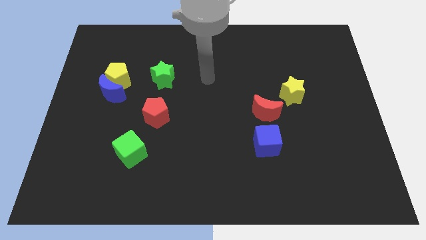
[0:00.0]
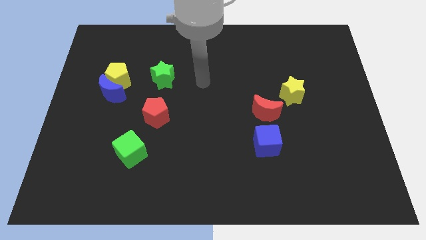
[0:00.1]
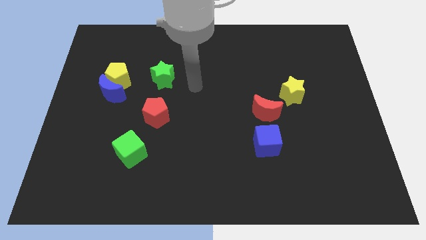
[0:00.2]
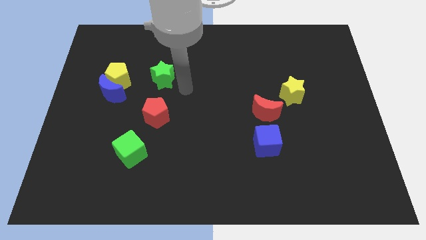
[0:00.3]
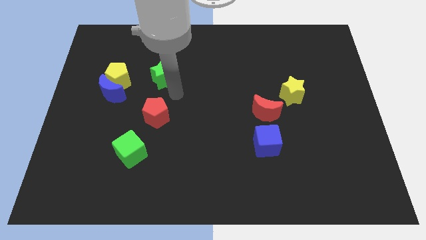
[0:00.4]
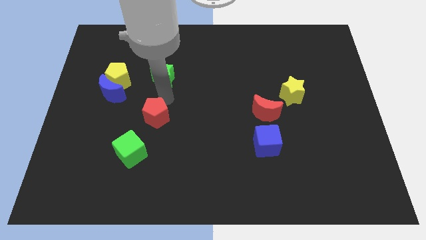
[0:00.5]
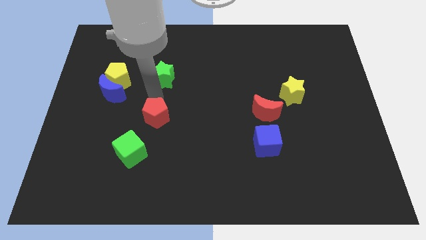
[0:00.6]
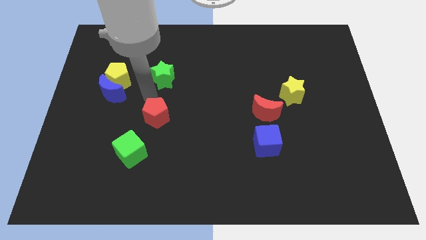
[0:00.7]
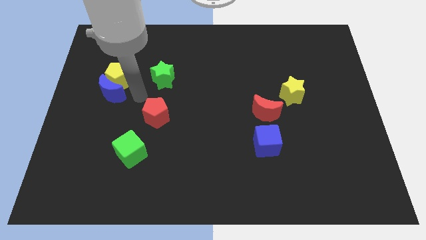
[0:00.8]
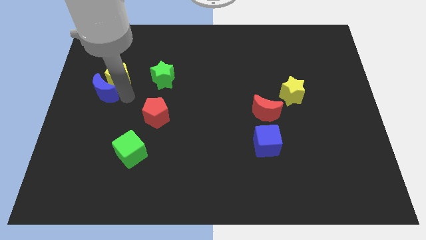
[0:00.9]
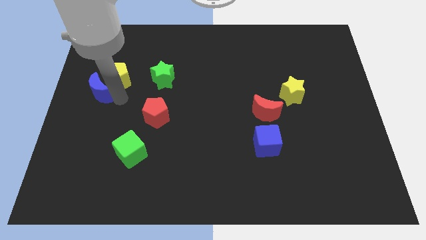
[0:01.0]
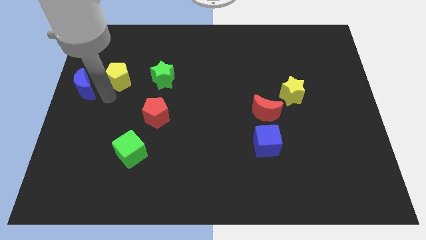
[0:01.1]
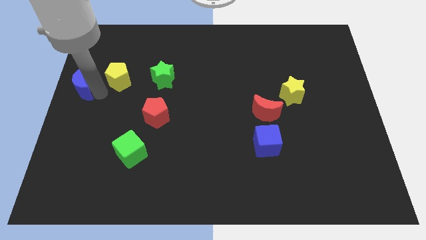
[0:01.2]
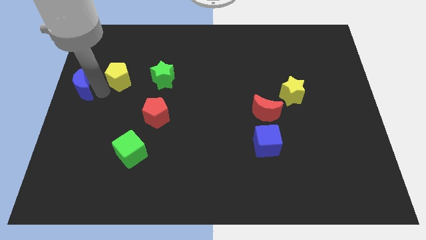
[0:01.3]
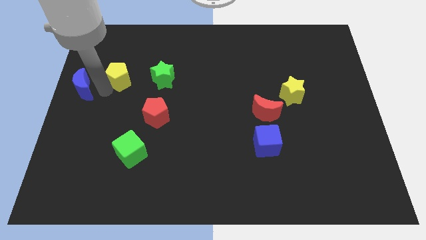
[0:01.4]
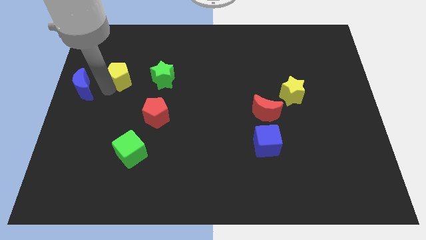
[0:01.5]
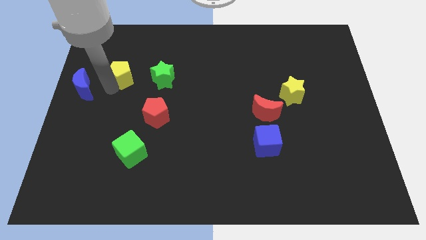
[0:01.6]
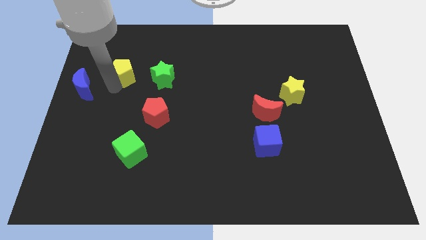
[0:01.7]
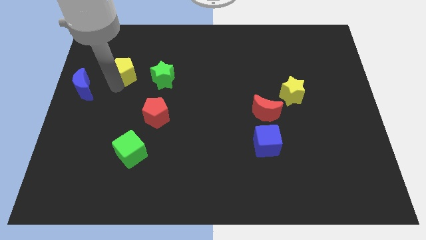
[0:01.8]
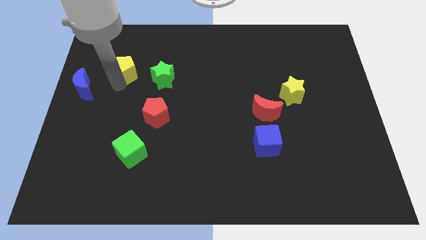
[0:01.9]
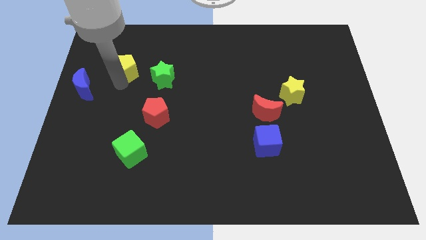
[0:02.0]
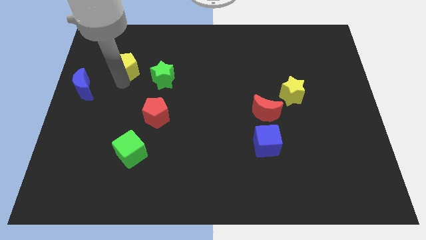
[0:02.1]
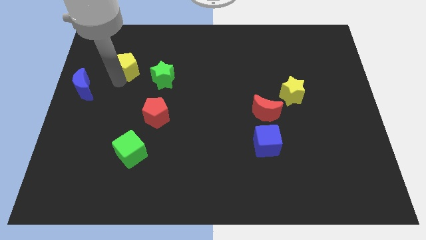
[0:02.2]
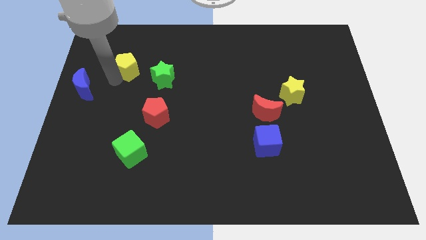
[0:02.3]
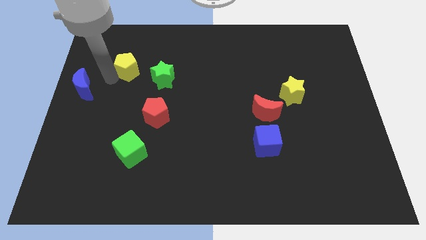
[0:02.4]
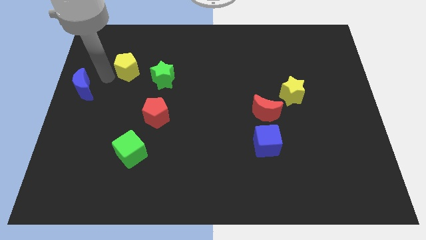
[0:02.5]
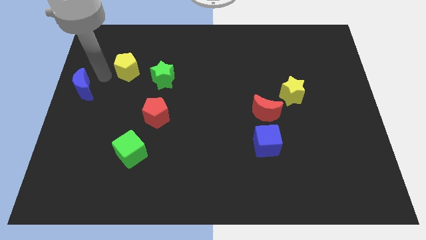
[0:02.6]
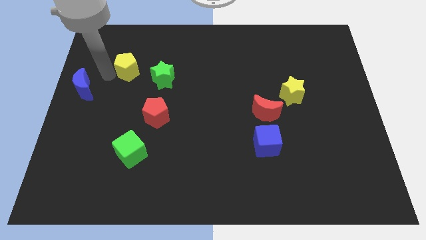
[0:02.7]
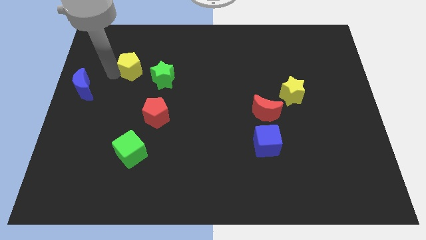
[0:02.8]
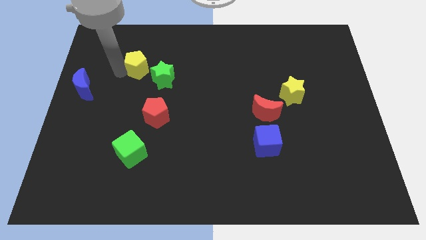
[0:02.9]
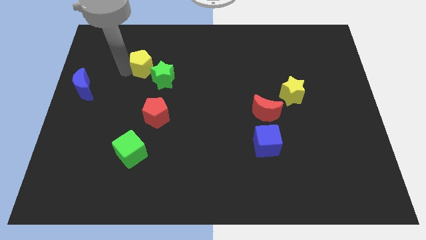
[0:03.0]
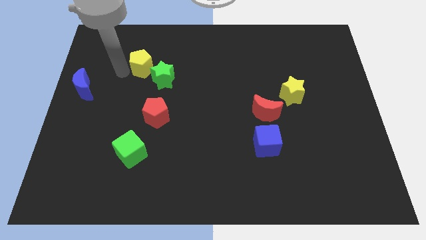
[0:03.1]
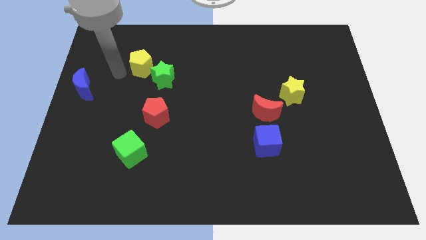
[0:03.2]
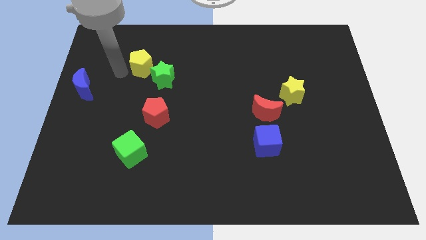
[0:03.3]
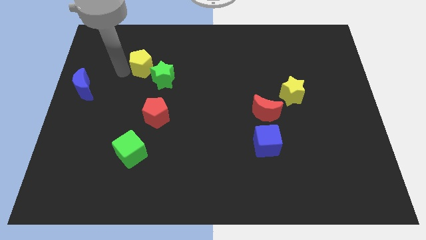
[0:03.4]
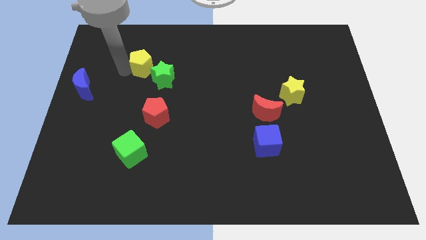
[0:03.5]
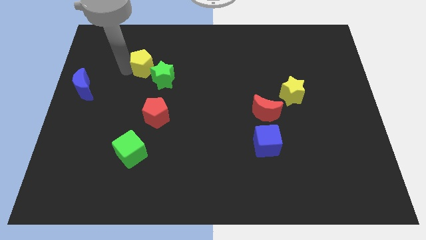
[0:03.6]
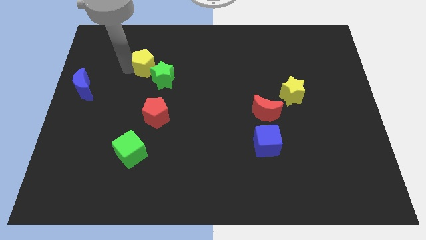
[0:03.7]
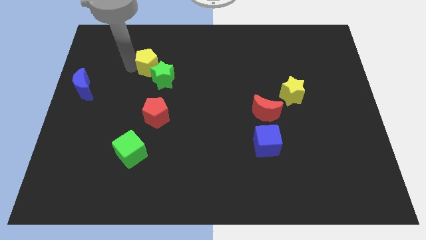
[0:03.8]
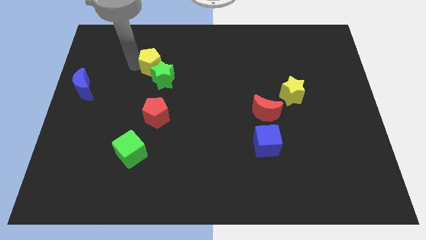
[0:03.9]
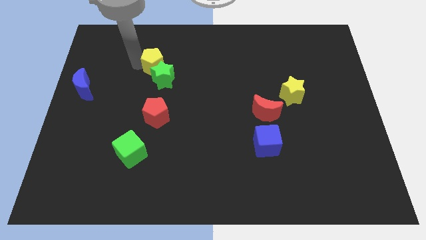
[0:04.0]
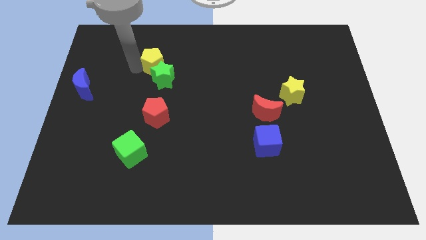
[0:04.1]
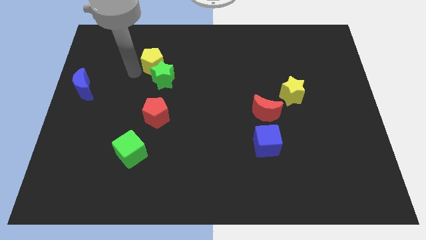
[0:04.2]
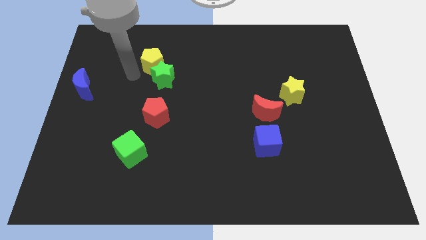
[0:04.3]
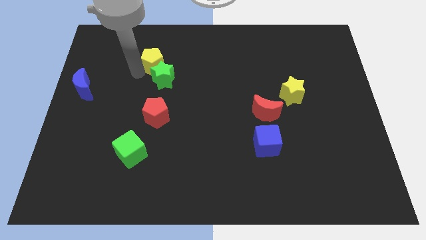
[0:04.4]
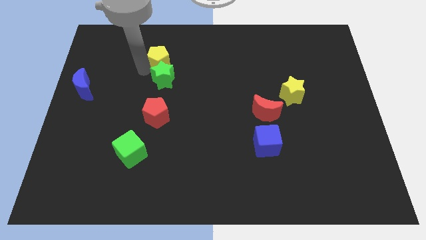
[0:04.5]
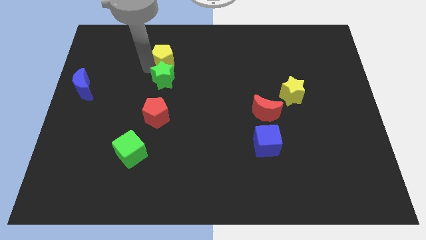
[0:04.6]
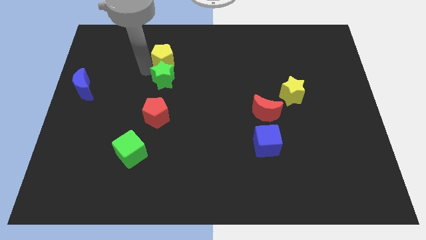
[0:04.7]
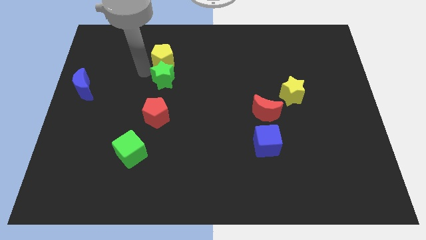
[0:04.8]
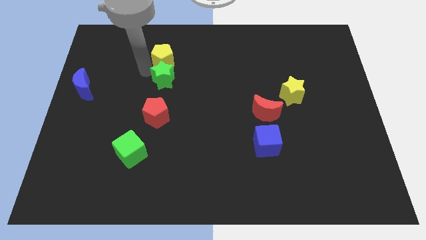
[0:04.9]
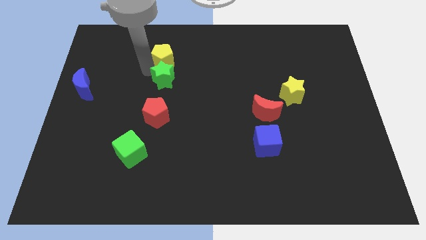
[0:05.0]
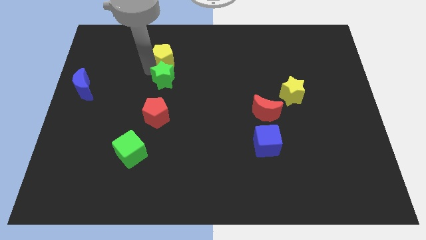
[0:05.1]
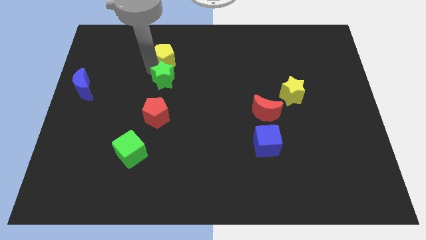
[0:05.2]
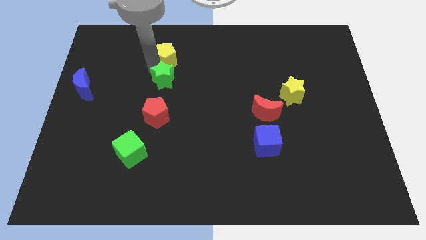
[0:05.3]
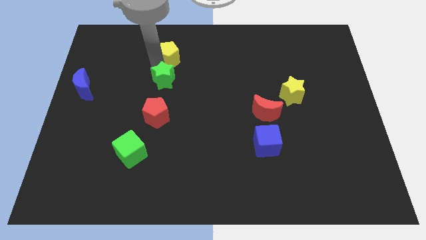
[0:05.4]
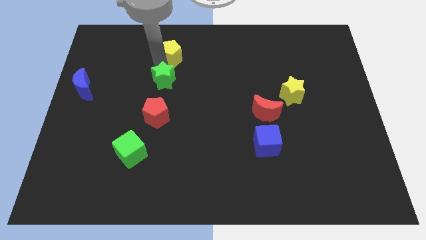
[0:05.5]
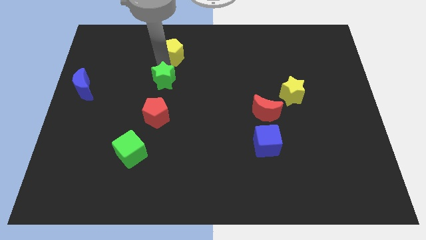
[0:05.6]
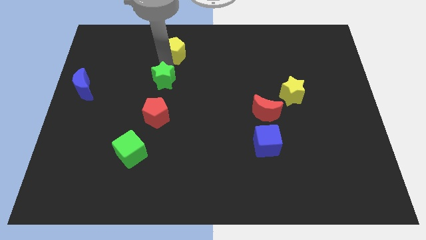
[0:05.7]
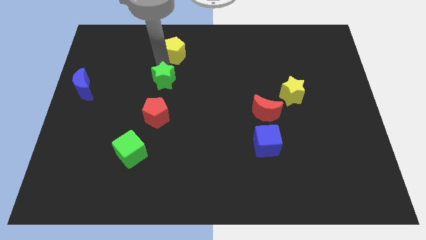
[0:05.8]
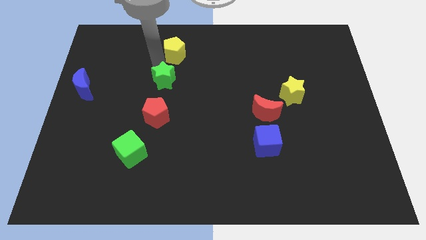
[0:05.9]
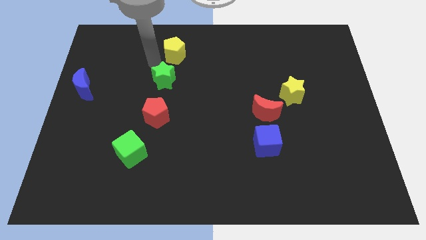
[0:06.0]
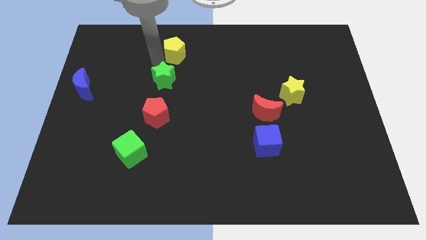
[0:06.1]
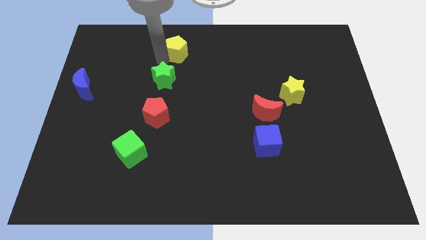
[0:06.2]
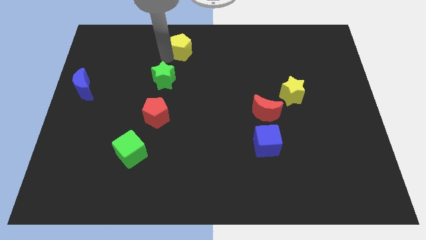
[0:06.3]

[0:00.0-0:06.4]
move the yellow pentagon to the towards your base
